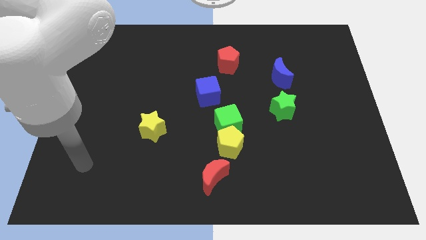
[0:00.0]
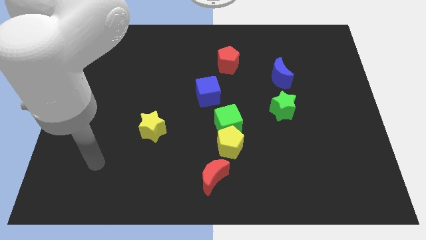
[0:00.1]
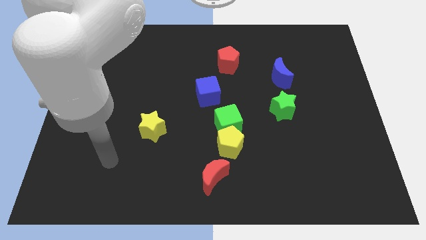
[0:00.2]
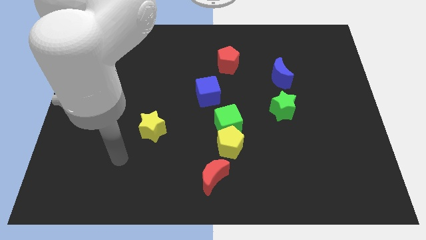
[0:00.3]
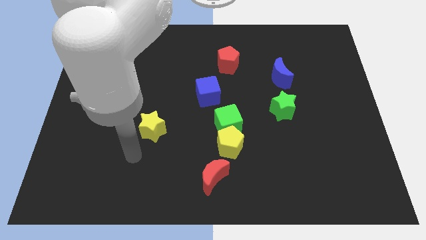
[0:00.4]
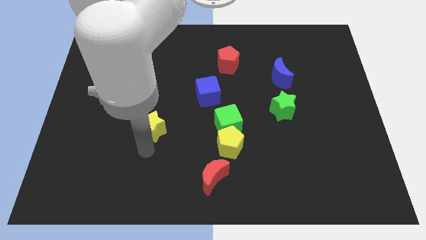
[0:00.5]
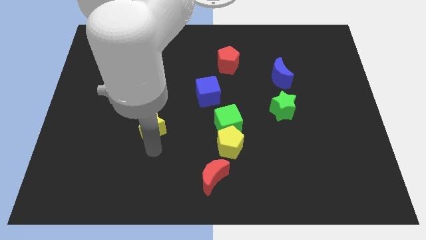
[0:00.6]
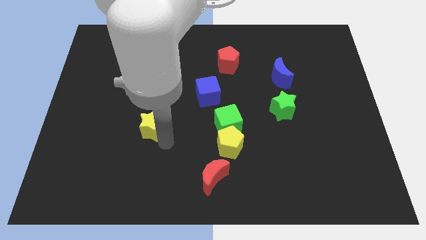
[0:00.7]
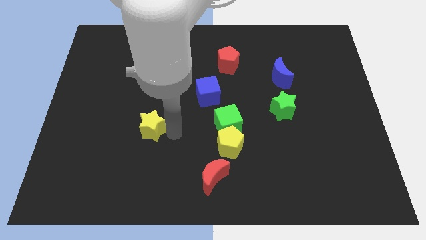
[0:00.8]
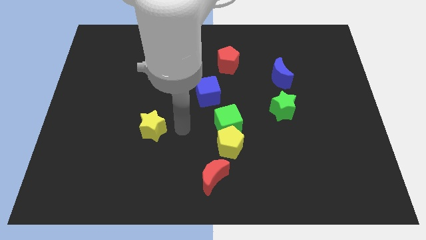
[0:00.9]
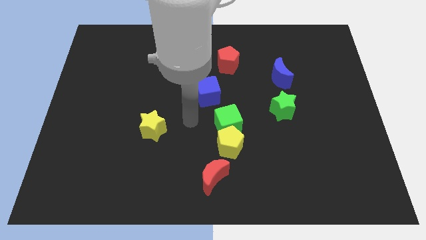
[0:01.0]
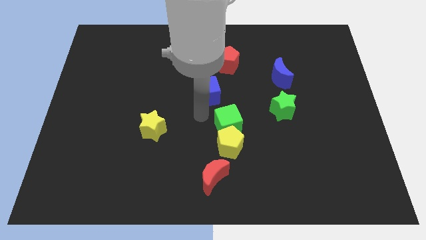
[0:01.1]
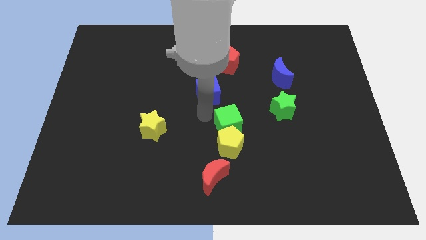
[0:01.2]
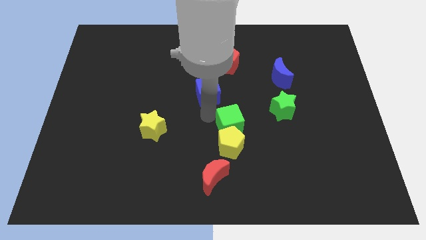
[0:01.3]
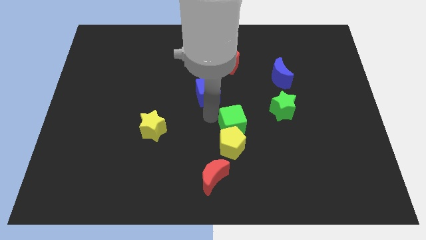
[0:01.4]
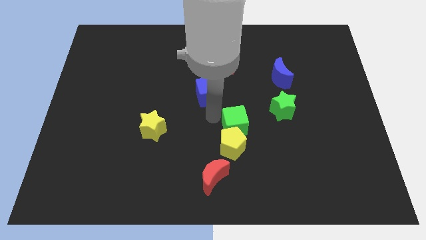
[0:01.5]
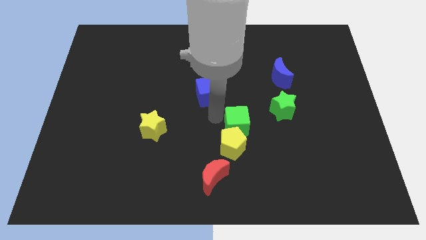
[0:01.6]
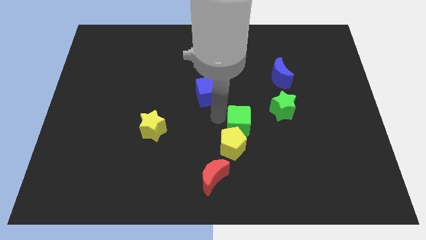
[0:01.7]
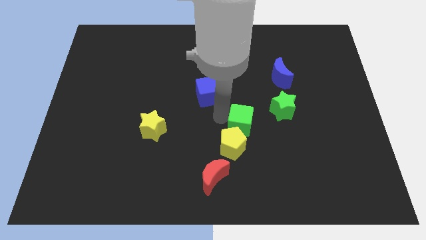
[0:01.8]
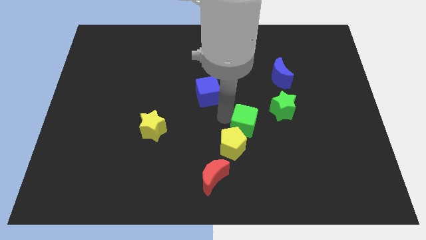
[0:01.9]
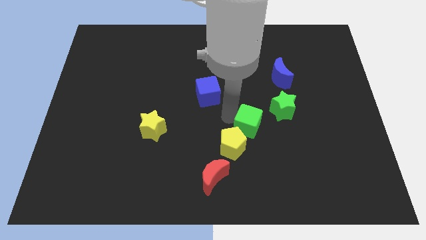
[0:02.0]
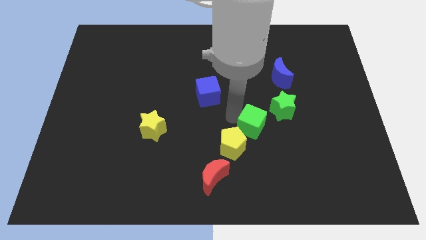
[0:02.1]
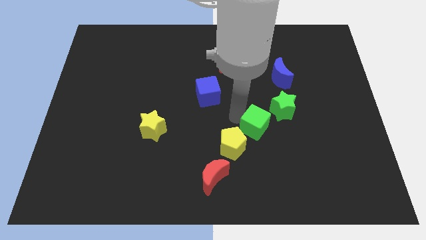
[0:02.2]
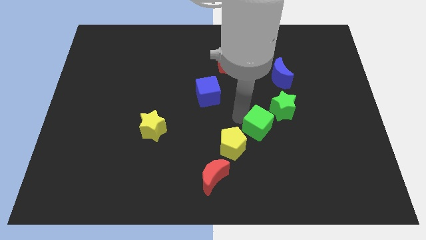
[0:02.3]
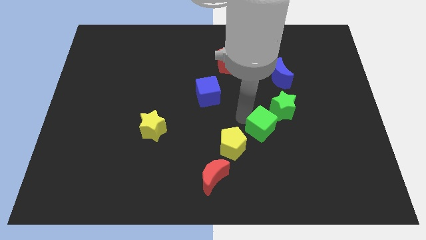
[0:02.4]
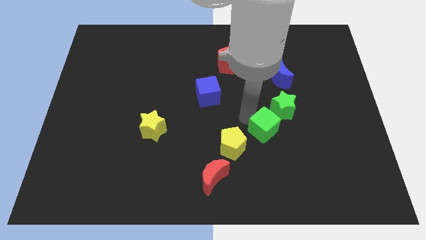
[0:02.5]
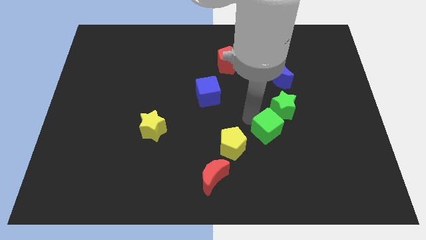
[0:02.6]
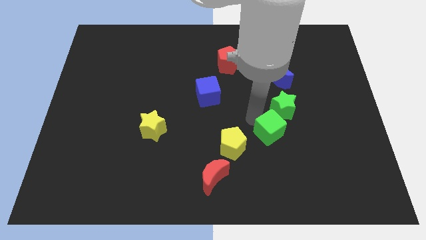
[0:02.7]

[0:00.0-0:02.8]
slide the green cube down and then to the right a little bit

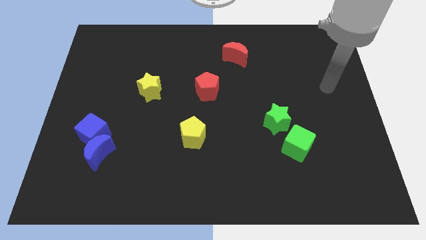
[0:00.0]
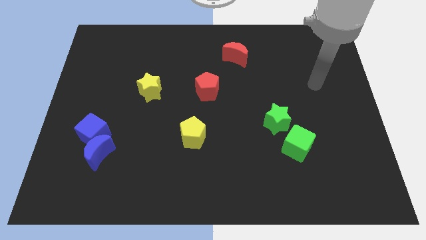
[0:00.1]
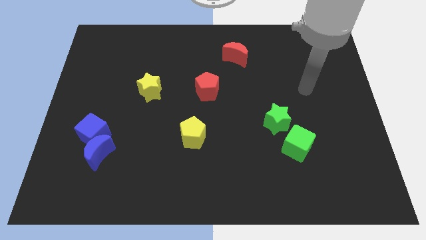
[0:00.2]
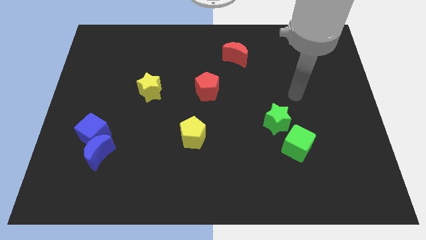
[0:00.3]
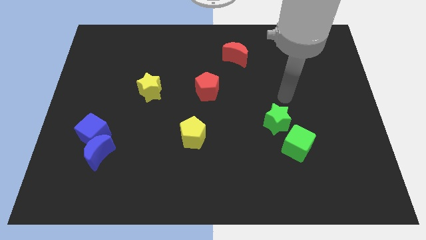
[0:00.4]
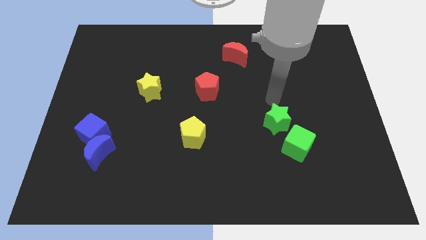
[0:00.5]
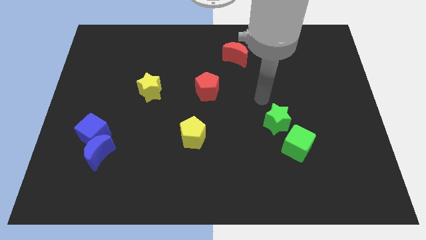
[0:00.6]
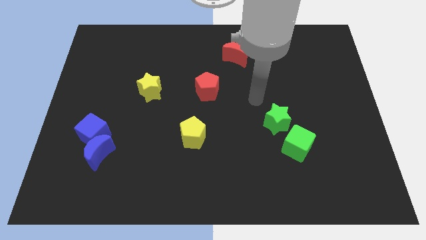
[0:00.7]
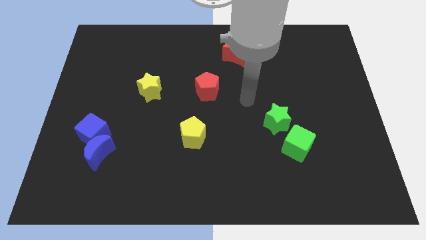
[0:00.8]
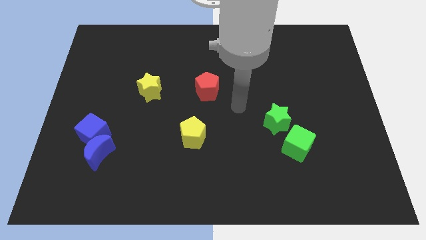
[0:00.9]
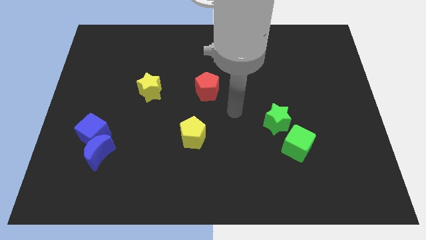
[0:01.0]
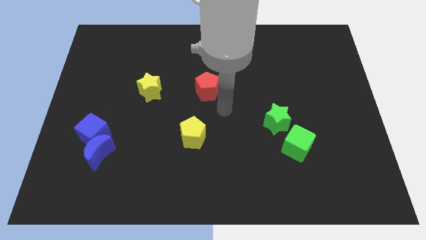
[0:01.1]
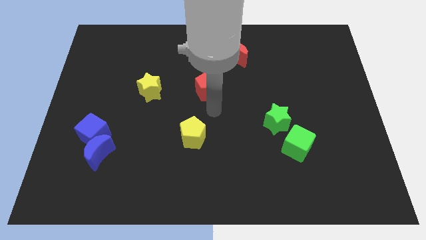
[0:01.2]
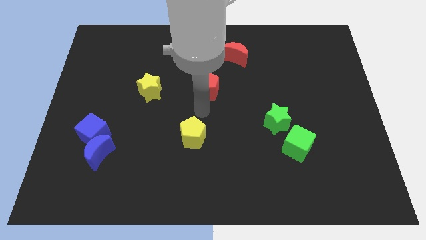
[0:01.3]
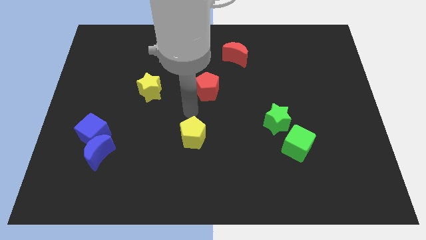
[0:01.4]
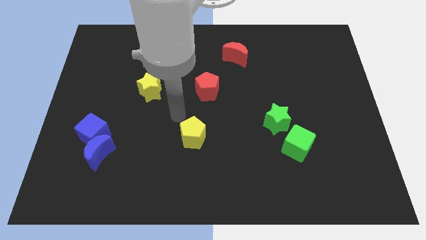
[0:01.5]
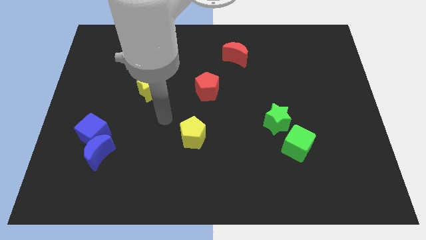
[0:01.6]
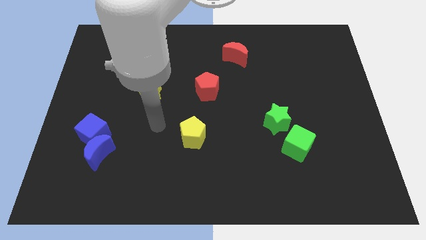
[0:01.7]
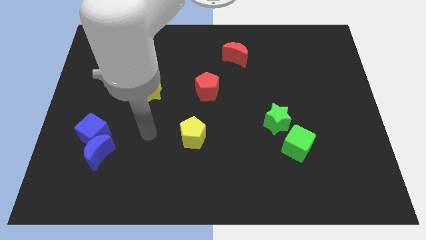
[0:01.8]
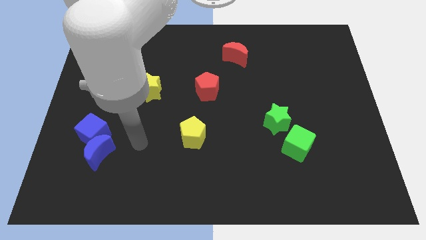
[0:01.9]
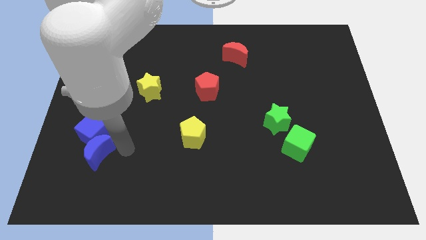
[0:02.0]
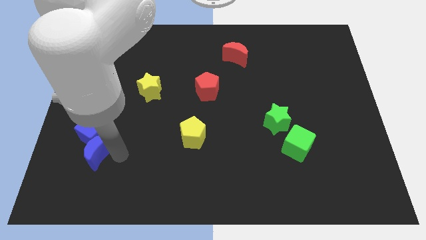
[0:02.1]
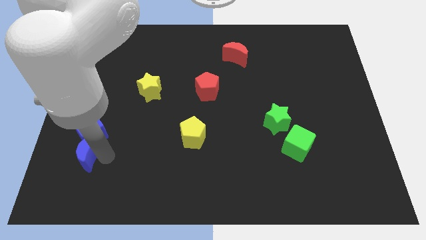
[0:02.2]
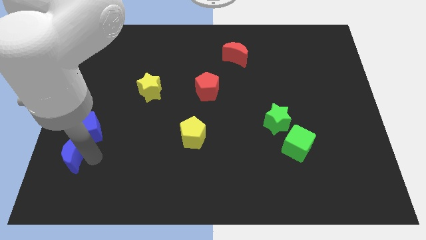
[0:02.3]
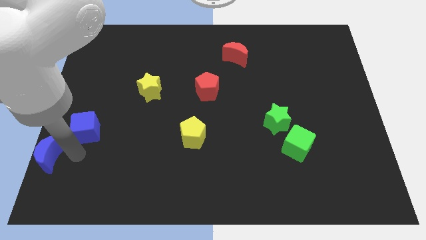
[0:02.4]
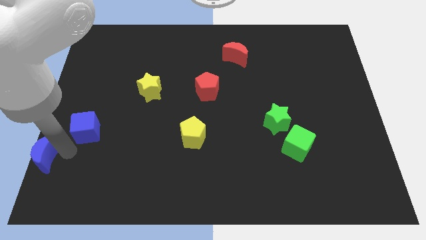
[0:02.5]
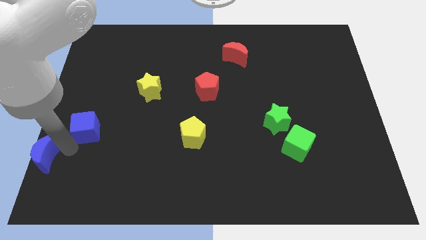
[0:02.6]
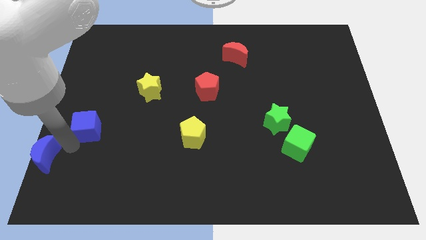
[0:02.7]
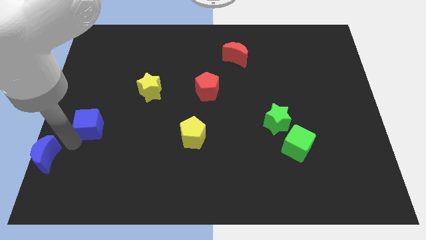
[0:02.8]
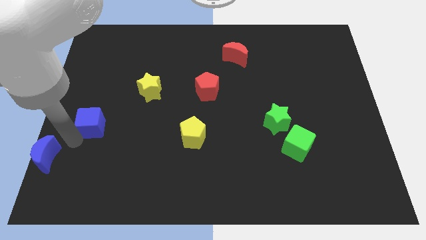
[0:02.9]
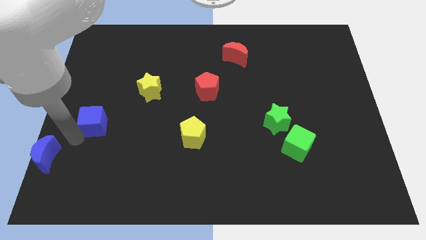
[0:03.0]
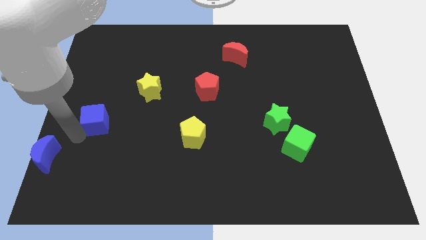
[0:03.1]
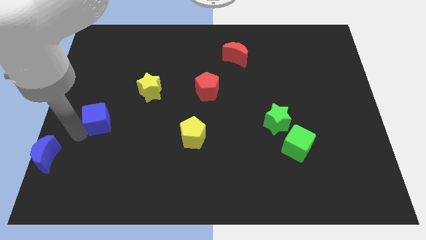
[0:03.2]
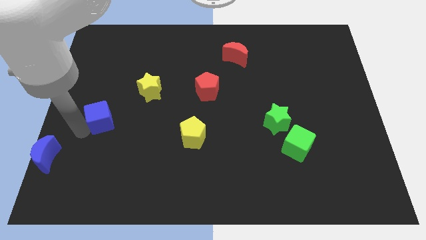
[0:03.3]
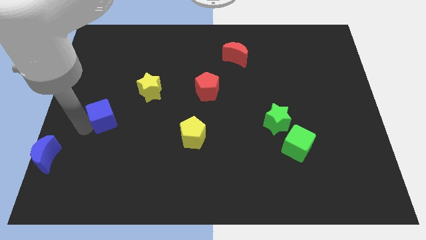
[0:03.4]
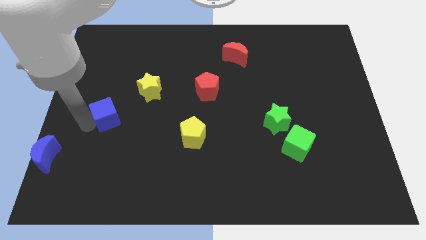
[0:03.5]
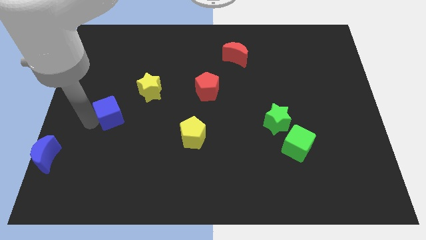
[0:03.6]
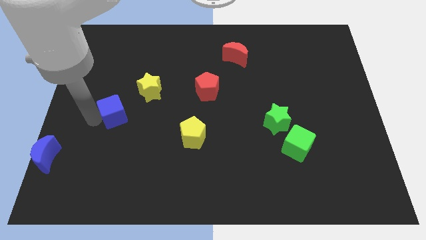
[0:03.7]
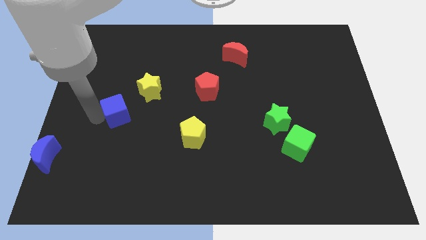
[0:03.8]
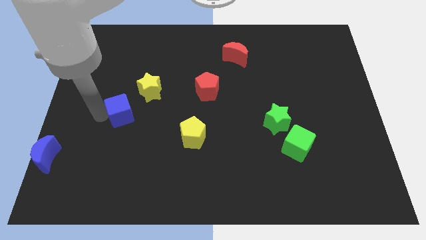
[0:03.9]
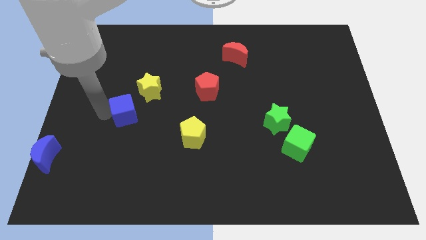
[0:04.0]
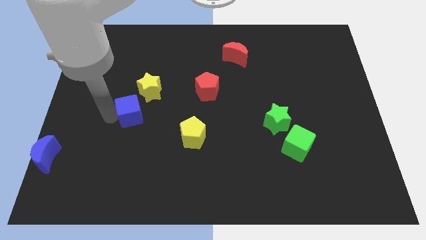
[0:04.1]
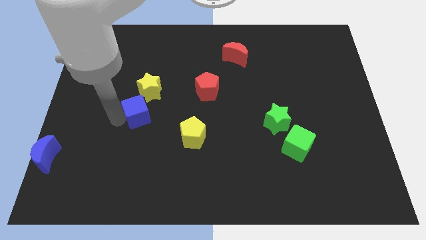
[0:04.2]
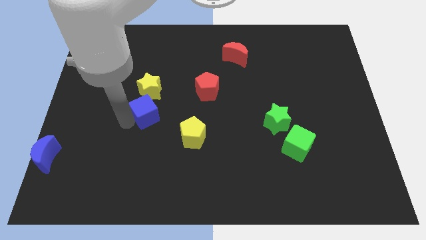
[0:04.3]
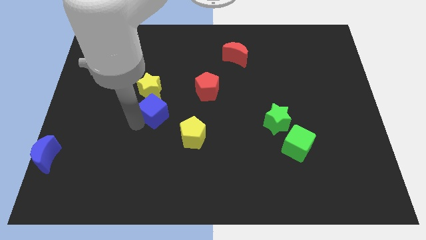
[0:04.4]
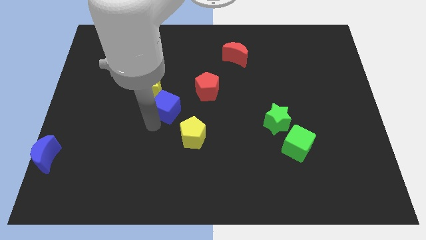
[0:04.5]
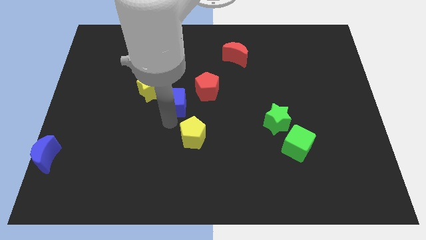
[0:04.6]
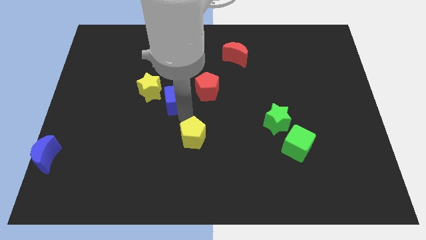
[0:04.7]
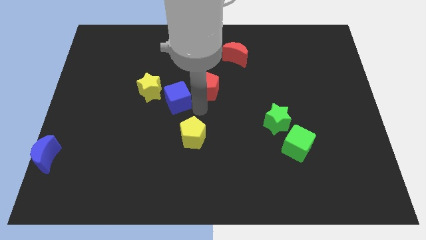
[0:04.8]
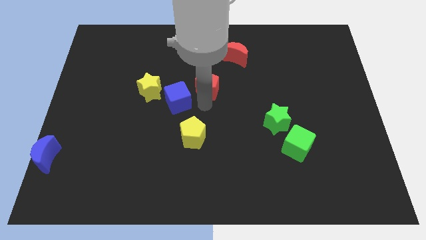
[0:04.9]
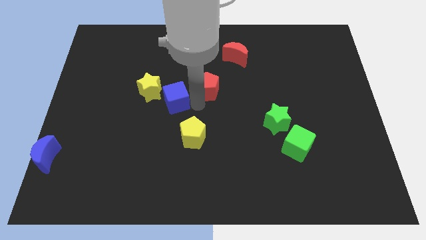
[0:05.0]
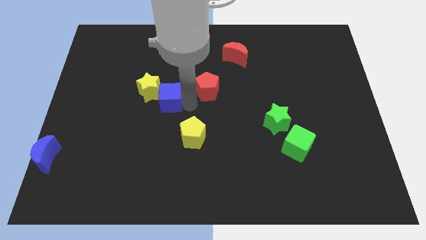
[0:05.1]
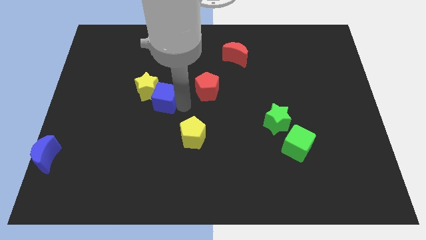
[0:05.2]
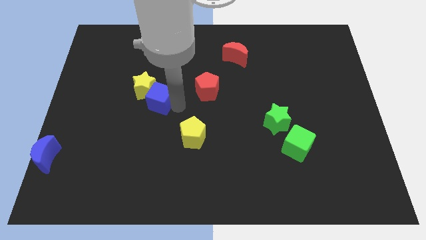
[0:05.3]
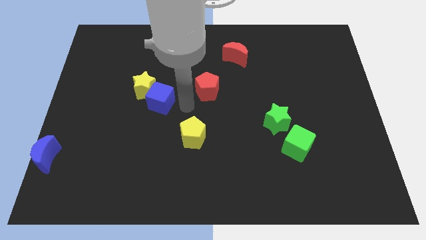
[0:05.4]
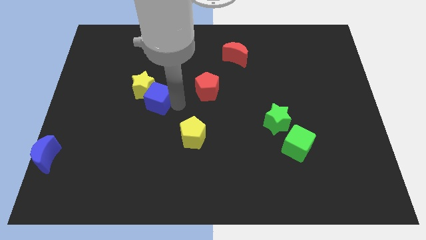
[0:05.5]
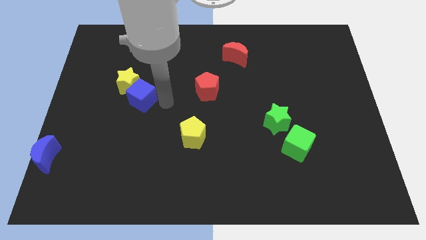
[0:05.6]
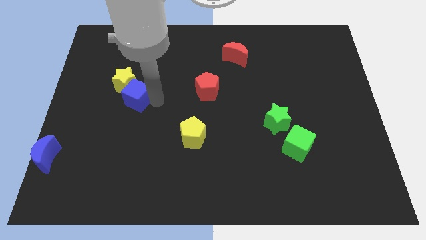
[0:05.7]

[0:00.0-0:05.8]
move the blue cube slightly upwards
